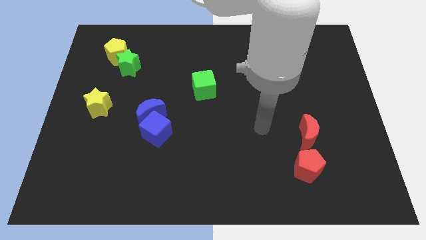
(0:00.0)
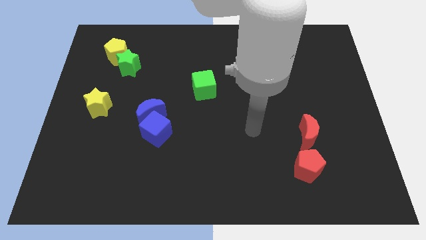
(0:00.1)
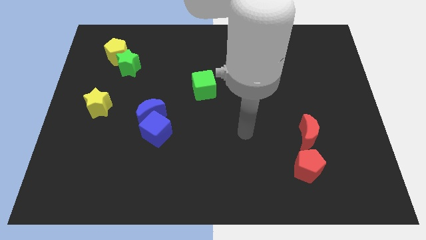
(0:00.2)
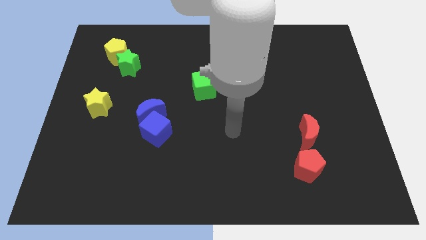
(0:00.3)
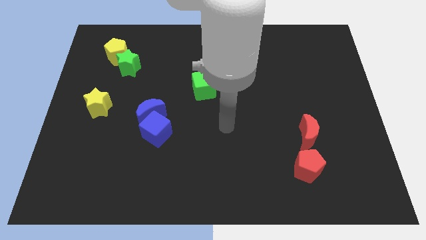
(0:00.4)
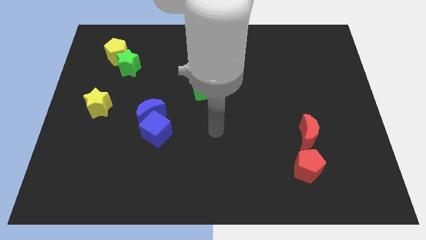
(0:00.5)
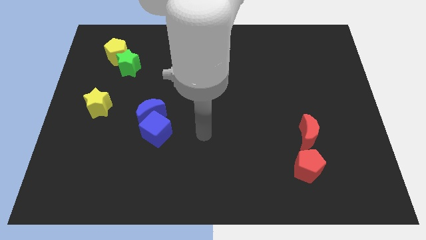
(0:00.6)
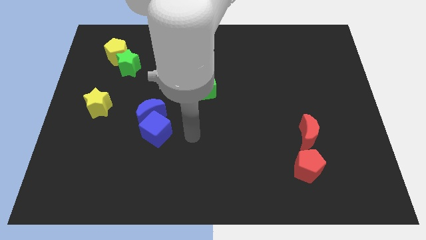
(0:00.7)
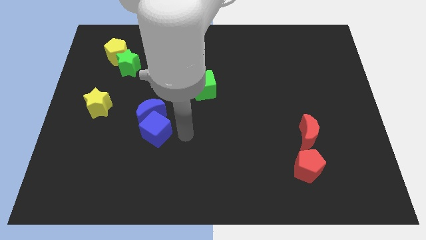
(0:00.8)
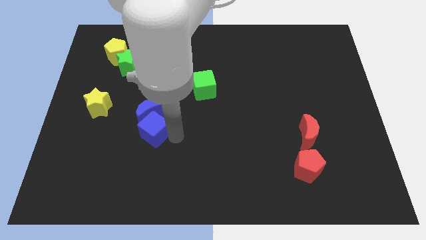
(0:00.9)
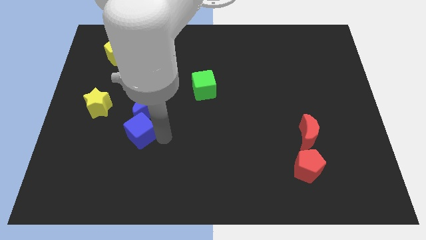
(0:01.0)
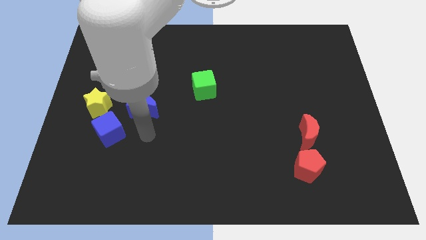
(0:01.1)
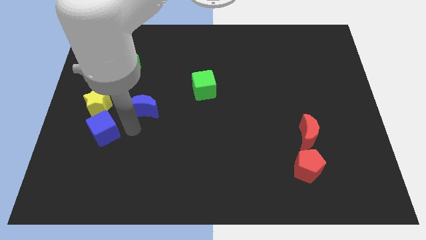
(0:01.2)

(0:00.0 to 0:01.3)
separate the blue moon from the blue cube

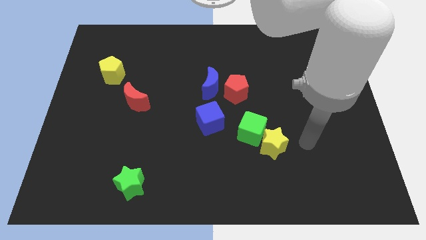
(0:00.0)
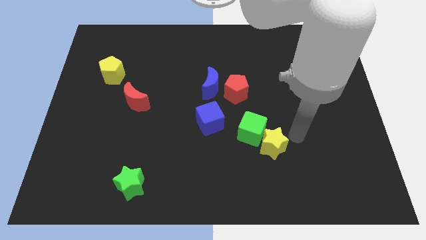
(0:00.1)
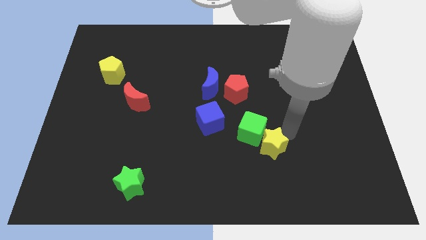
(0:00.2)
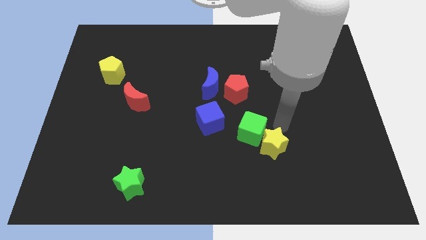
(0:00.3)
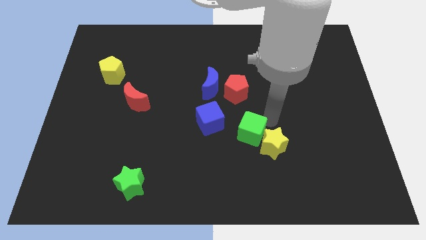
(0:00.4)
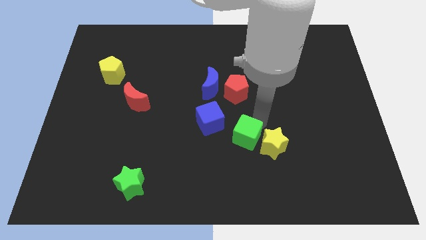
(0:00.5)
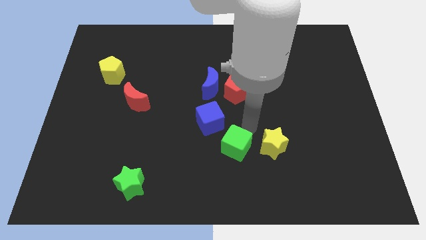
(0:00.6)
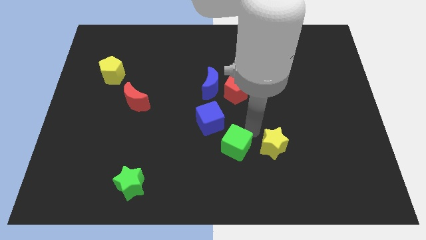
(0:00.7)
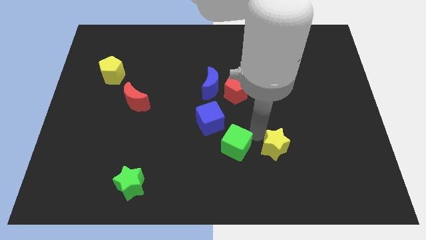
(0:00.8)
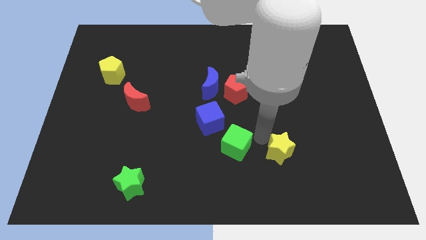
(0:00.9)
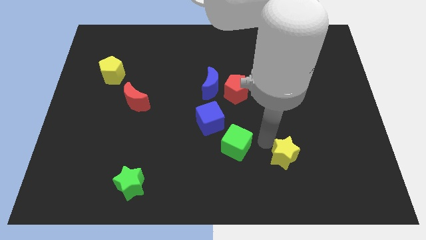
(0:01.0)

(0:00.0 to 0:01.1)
separate the yellow star from the green cube

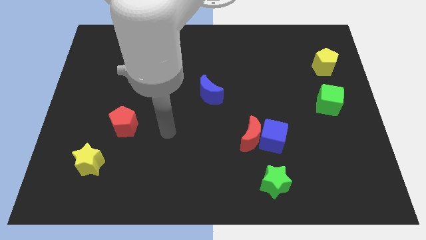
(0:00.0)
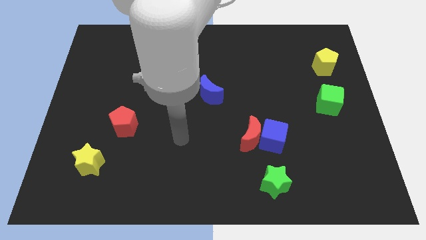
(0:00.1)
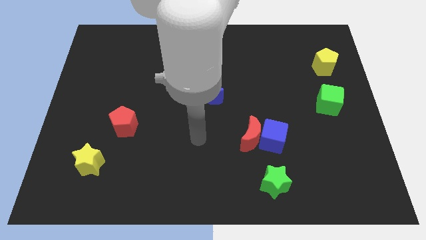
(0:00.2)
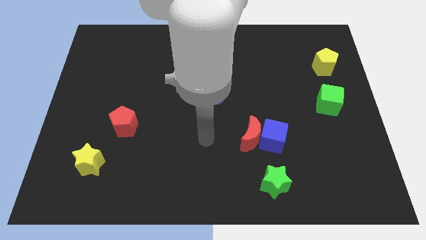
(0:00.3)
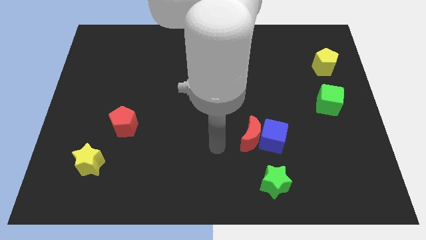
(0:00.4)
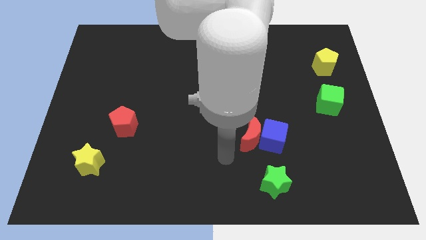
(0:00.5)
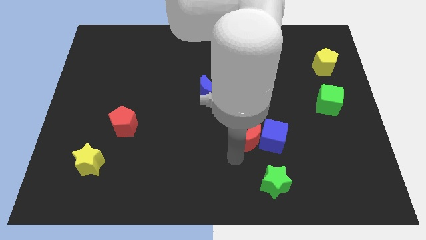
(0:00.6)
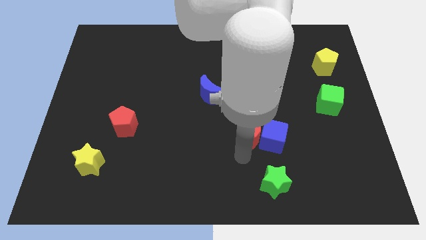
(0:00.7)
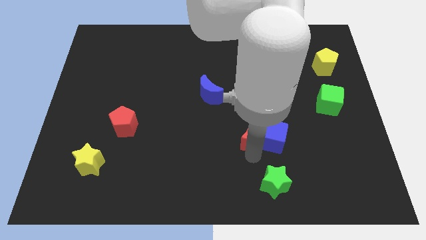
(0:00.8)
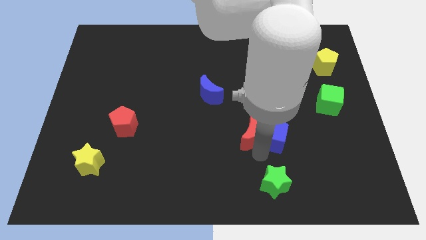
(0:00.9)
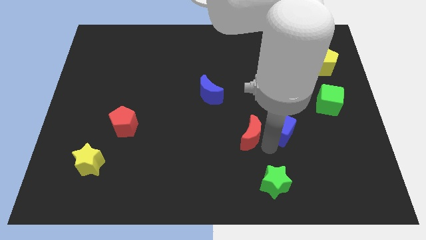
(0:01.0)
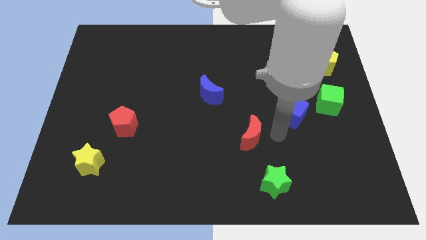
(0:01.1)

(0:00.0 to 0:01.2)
separate the red moon from the blue cube

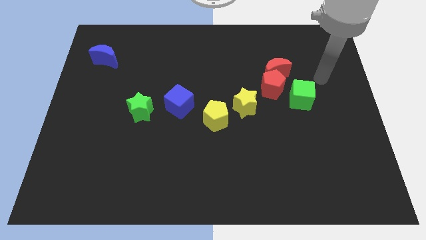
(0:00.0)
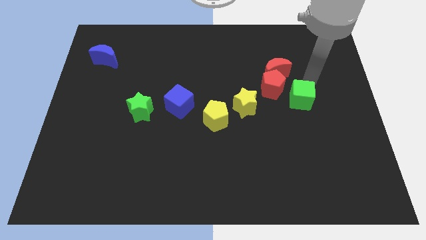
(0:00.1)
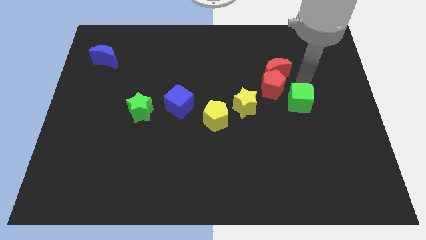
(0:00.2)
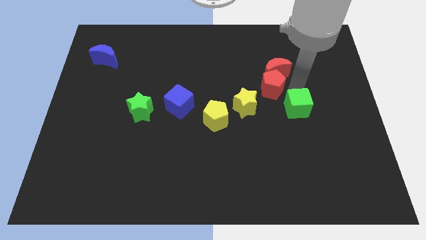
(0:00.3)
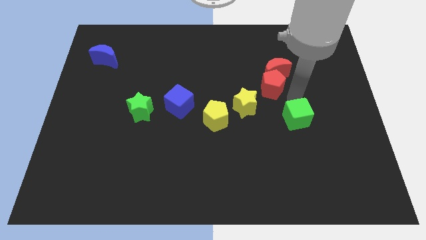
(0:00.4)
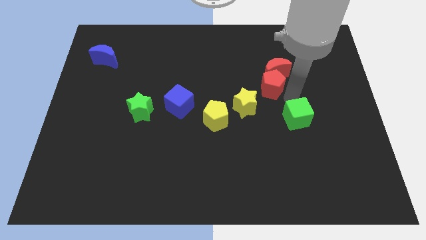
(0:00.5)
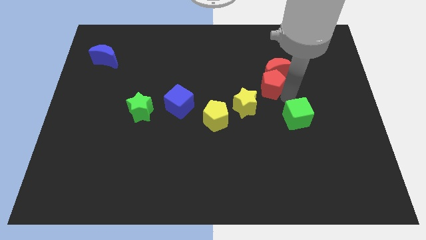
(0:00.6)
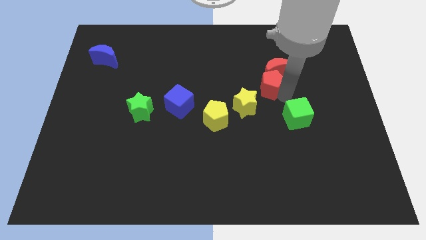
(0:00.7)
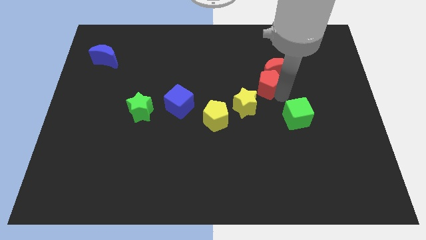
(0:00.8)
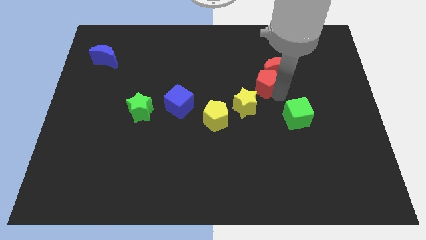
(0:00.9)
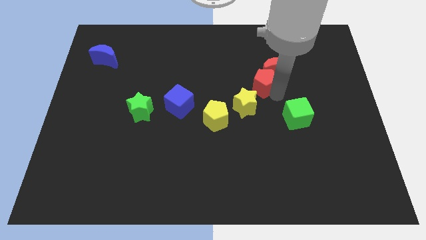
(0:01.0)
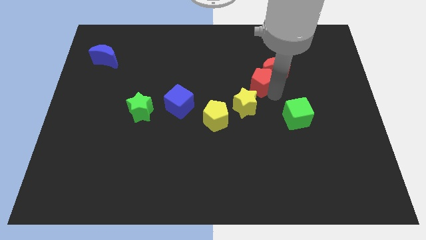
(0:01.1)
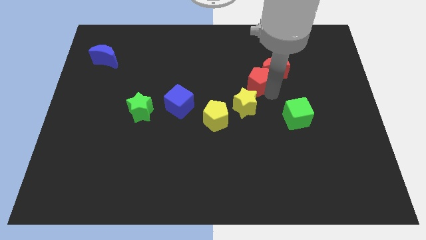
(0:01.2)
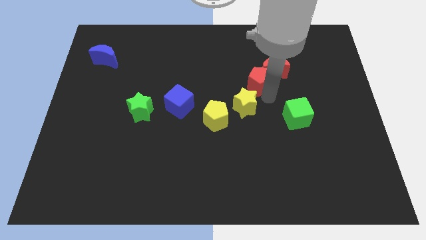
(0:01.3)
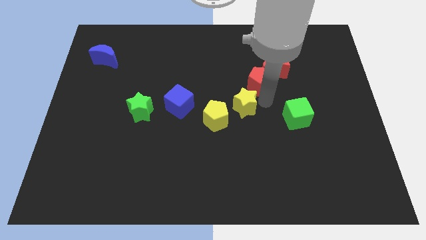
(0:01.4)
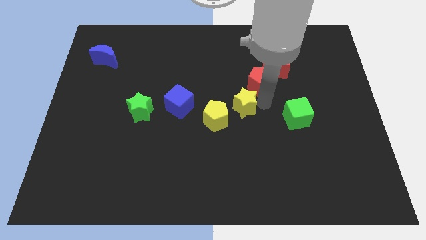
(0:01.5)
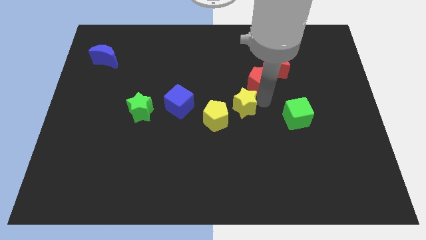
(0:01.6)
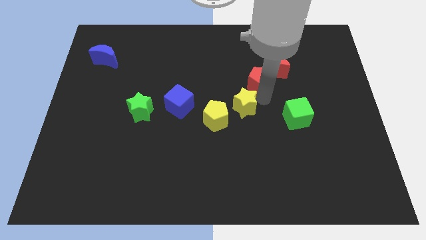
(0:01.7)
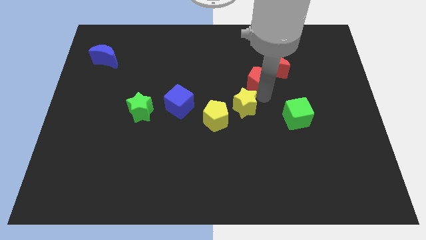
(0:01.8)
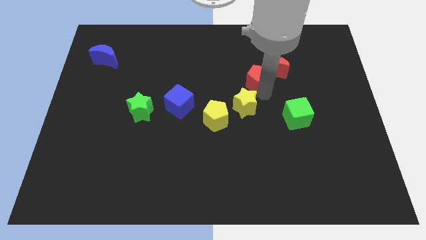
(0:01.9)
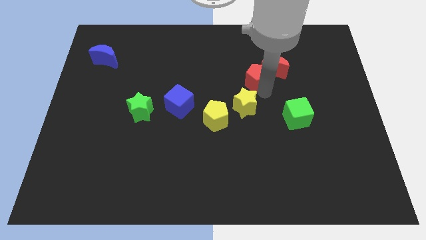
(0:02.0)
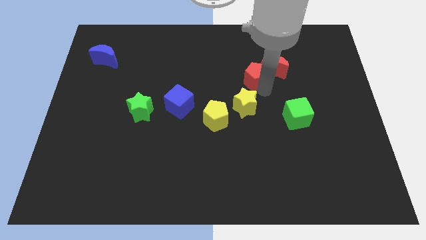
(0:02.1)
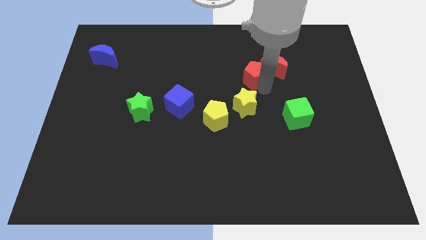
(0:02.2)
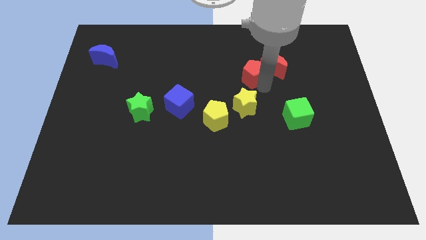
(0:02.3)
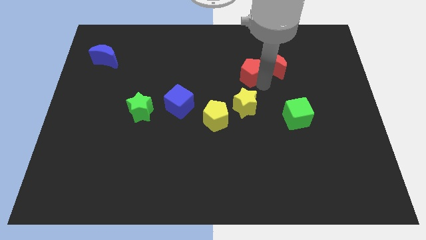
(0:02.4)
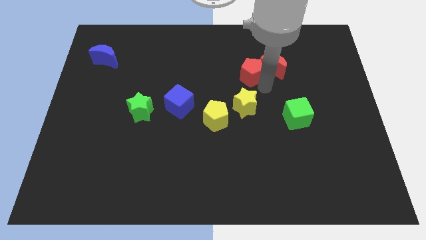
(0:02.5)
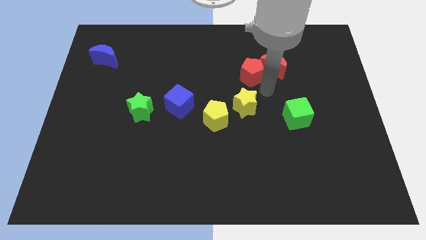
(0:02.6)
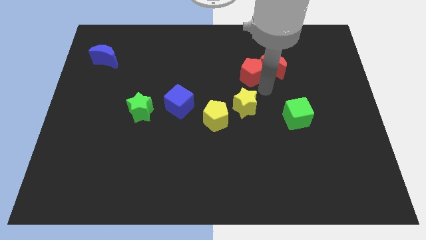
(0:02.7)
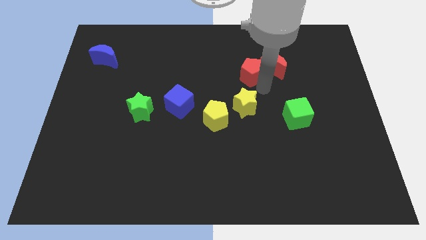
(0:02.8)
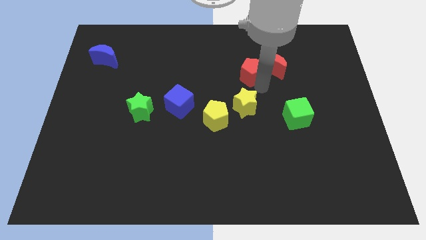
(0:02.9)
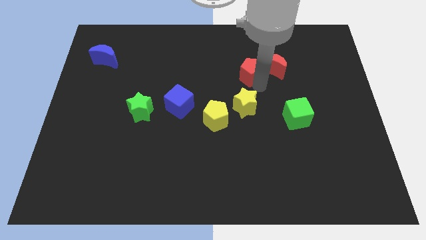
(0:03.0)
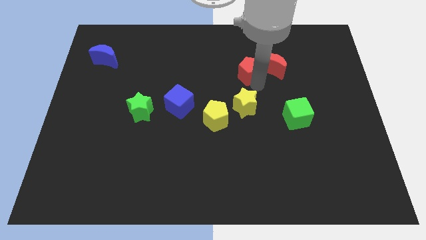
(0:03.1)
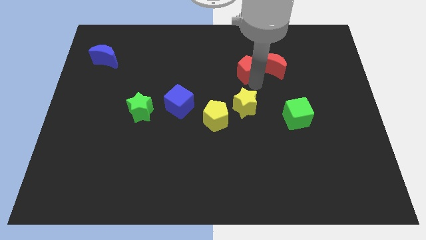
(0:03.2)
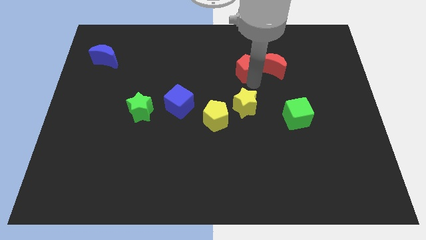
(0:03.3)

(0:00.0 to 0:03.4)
separate the red pentagon from the red moon, green cube, and yellow star

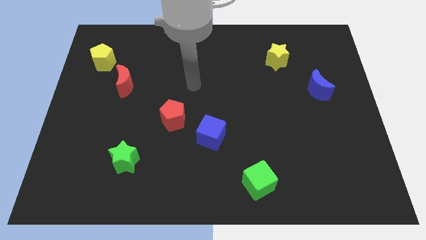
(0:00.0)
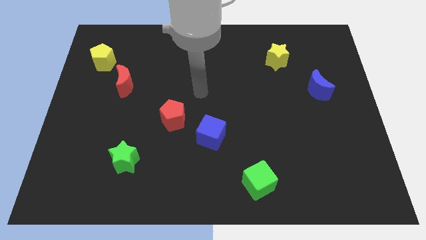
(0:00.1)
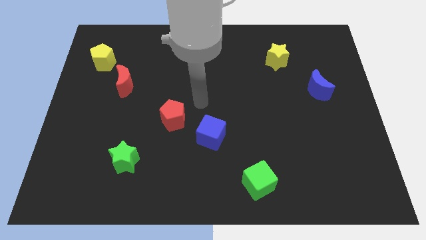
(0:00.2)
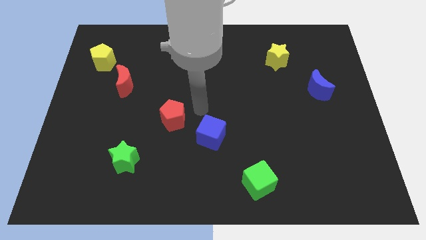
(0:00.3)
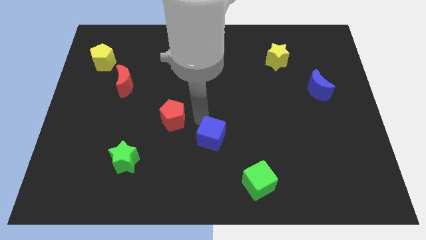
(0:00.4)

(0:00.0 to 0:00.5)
separate the red pentagon from the blue cube

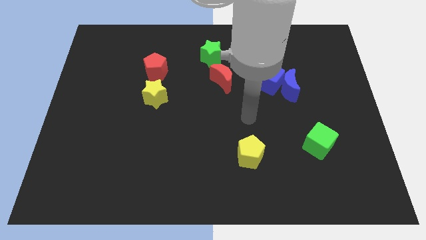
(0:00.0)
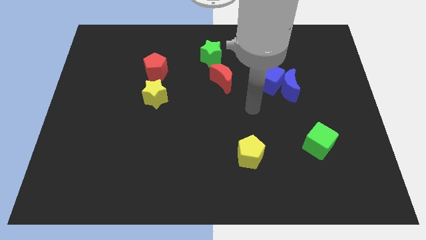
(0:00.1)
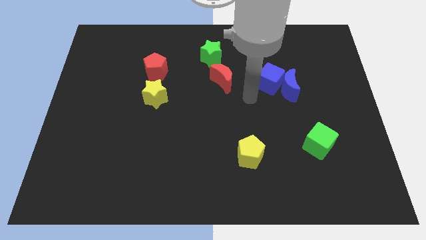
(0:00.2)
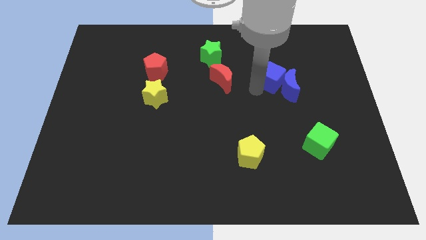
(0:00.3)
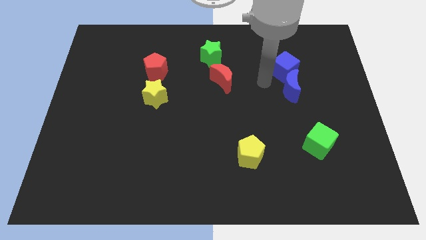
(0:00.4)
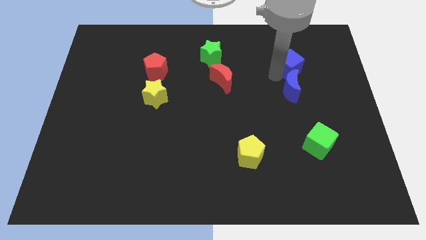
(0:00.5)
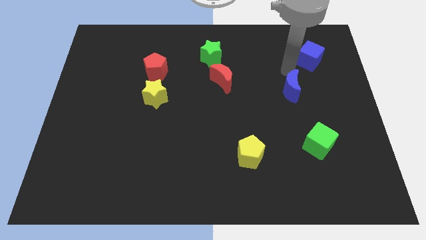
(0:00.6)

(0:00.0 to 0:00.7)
move the blue moon away from the blue cube

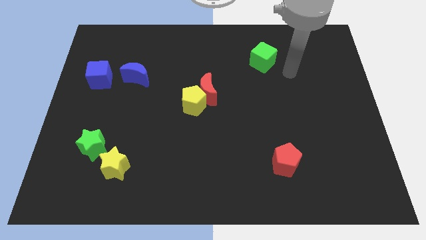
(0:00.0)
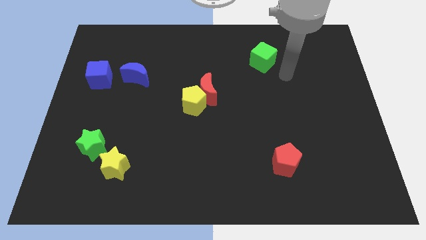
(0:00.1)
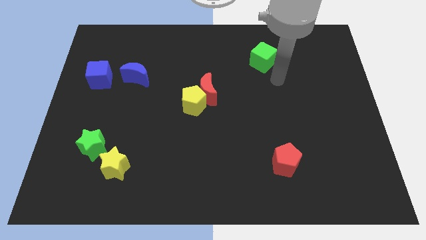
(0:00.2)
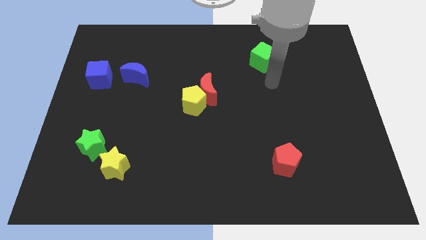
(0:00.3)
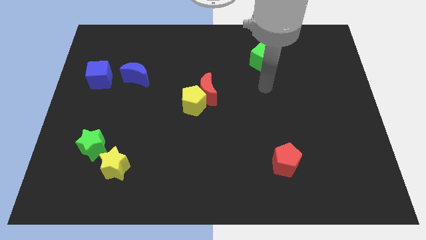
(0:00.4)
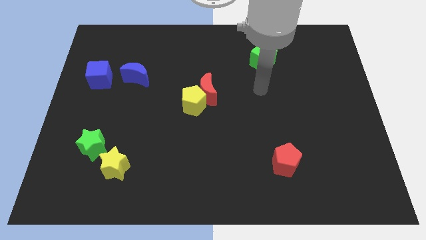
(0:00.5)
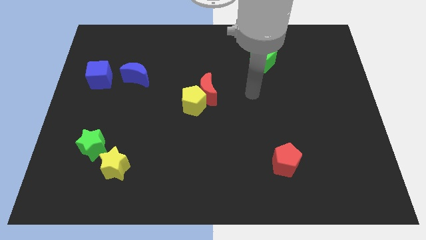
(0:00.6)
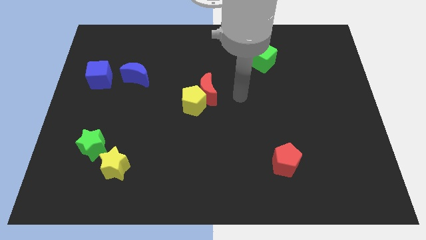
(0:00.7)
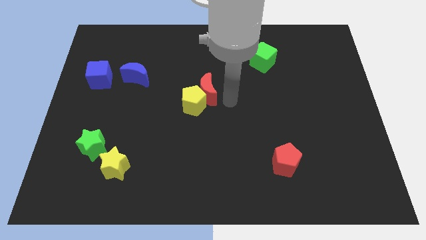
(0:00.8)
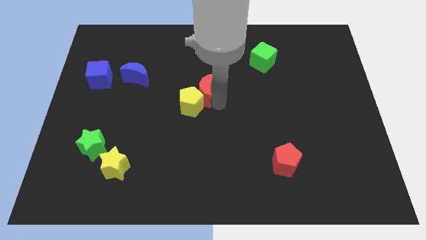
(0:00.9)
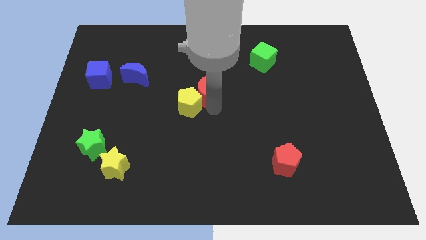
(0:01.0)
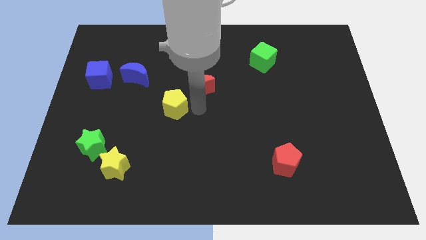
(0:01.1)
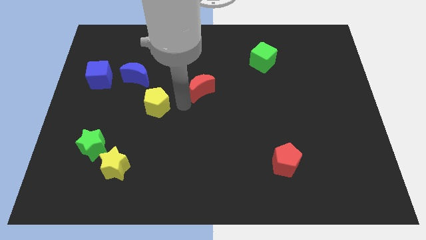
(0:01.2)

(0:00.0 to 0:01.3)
move the red moon away from the yellow pentagon

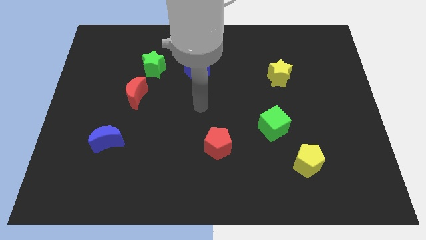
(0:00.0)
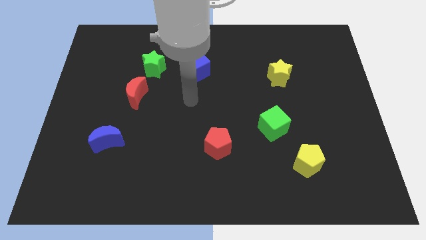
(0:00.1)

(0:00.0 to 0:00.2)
move the red moon away from the green star
